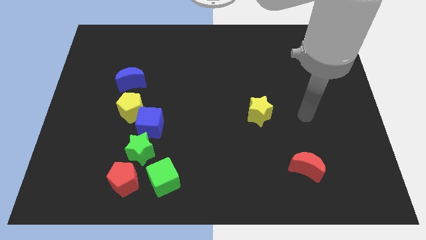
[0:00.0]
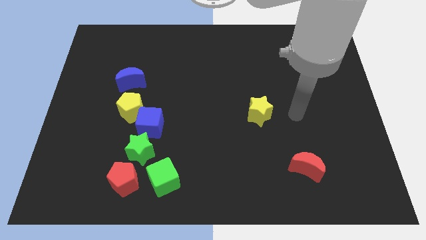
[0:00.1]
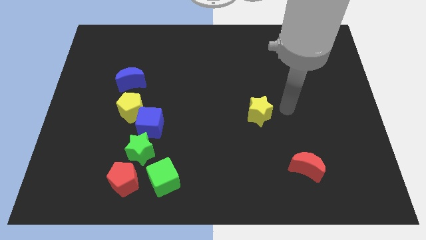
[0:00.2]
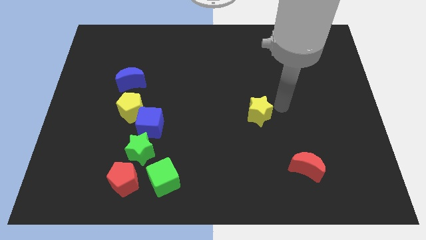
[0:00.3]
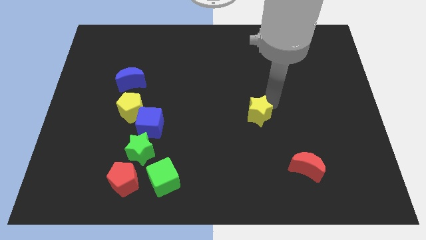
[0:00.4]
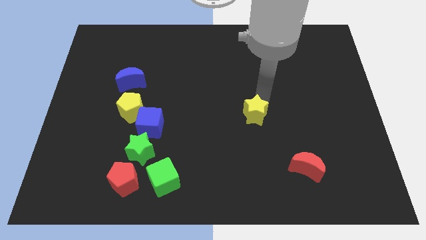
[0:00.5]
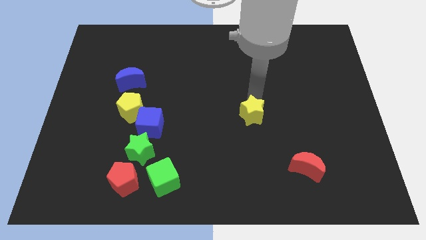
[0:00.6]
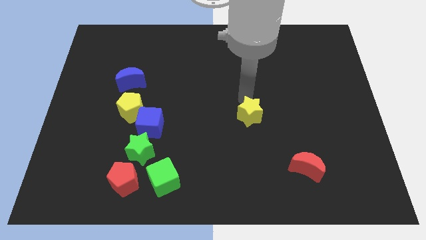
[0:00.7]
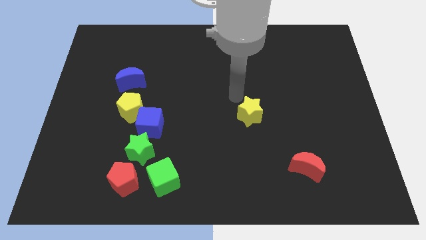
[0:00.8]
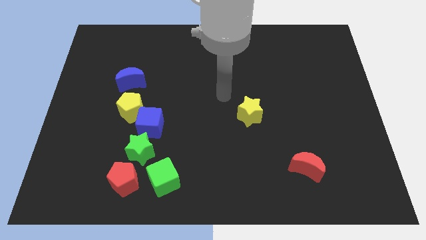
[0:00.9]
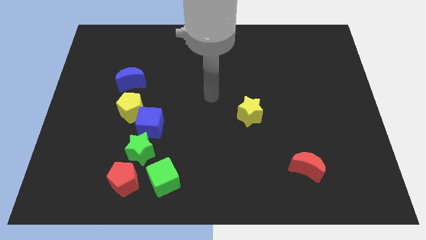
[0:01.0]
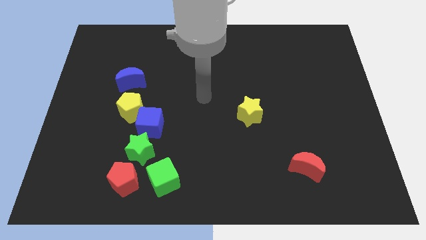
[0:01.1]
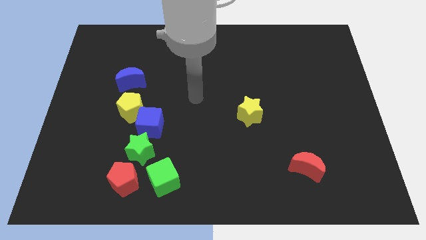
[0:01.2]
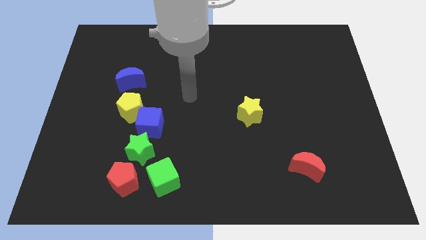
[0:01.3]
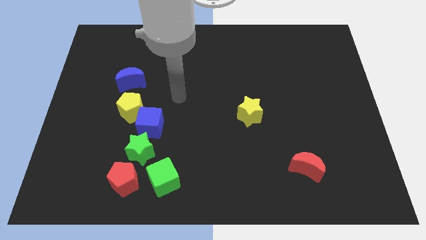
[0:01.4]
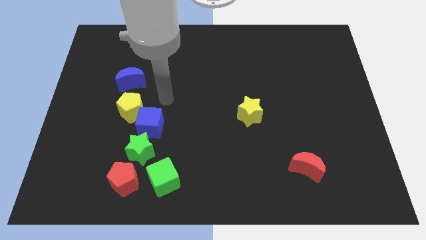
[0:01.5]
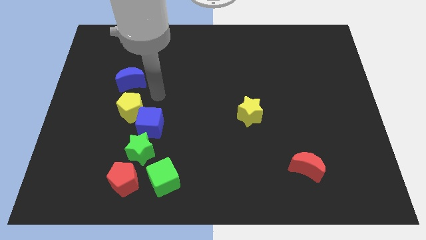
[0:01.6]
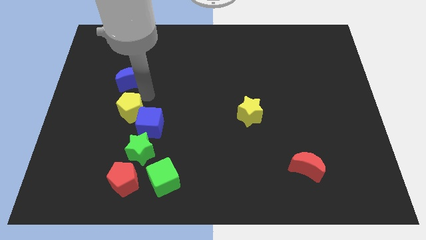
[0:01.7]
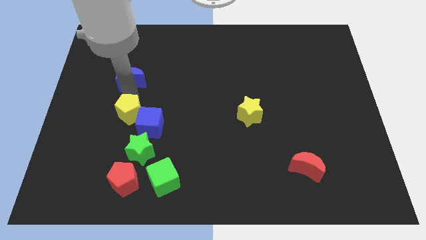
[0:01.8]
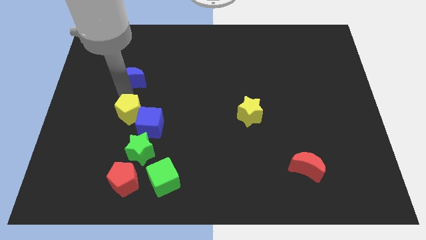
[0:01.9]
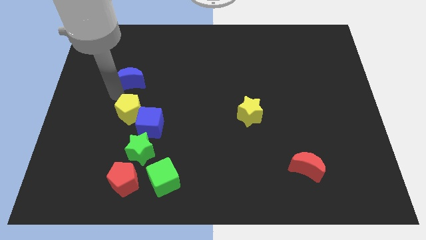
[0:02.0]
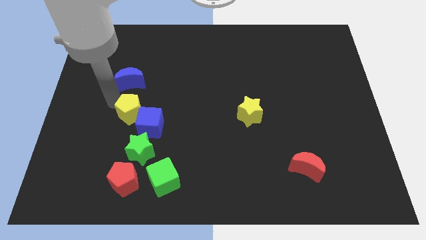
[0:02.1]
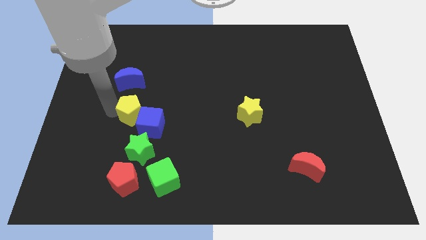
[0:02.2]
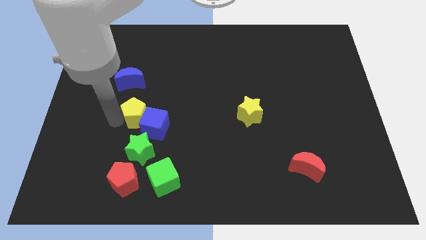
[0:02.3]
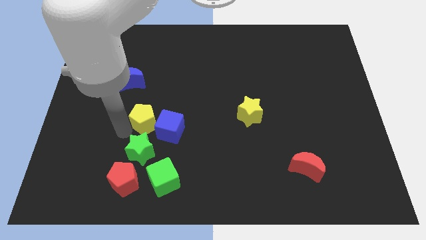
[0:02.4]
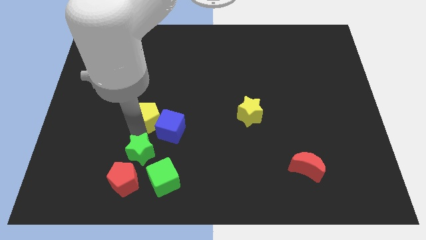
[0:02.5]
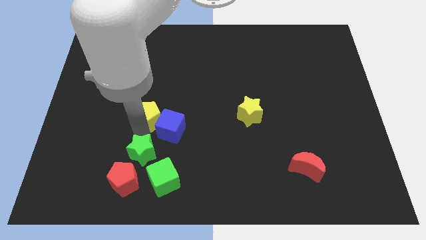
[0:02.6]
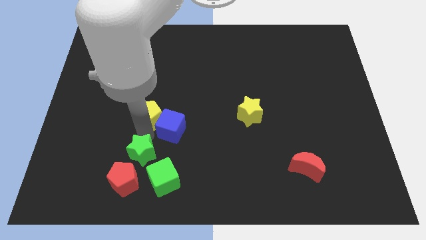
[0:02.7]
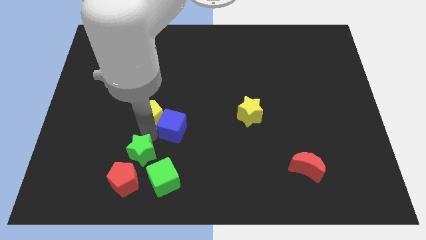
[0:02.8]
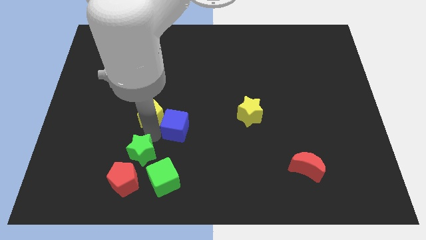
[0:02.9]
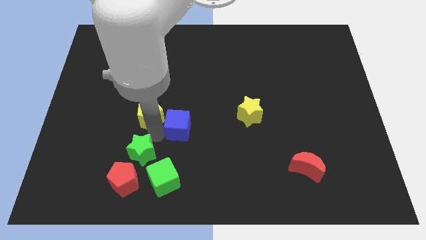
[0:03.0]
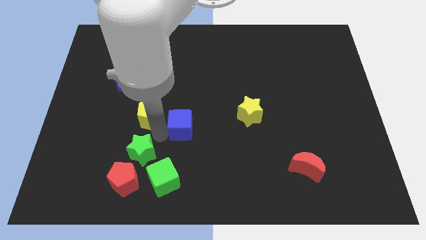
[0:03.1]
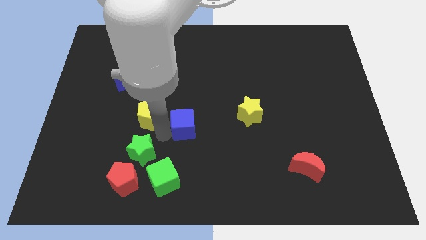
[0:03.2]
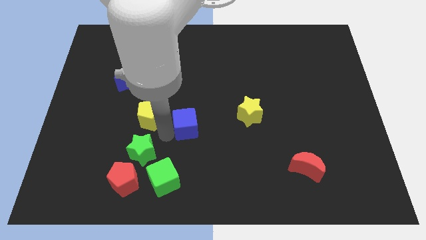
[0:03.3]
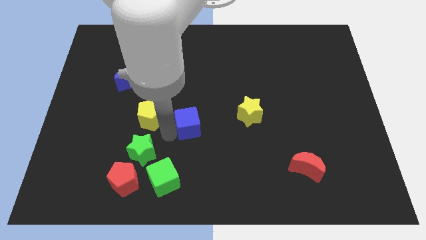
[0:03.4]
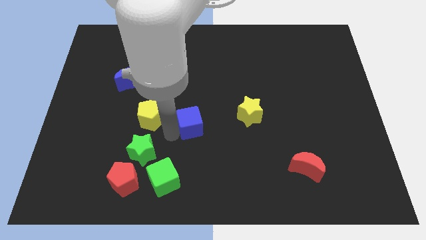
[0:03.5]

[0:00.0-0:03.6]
move the blue cube away from the yellow pentagon and green star

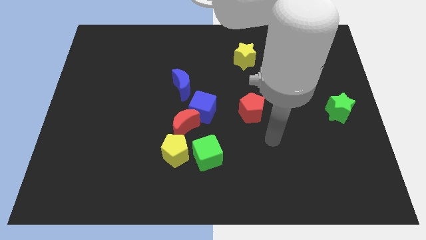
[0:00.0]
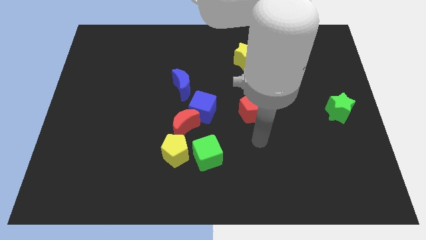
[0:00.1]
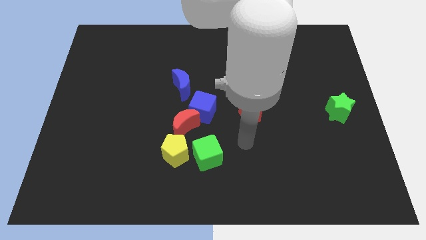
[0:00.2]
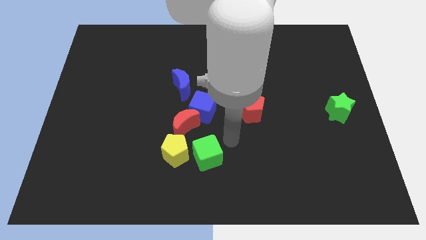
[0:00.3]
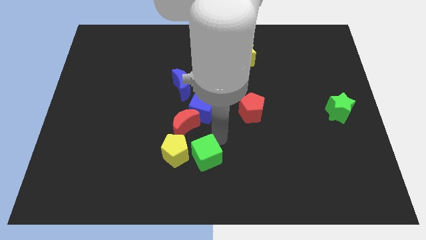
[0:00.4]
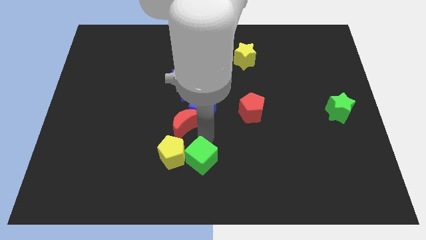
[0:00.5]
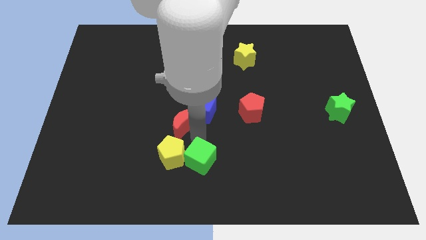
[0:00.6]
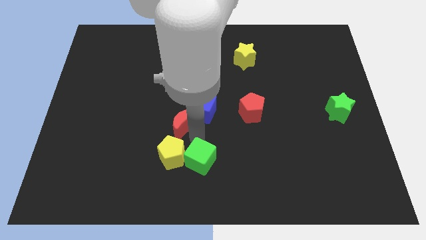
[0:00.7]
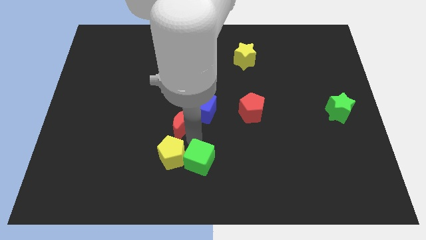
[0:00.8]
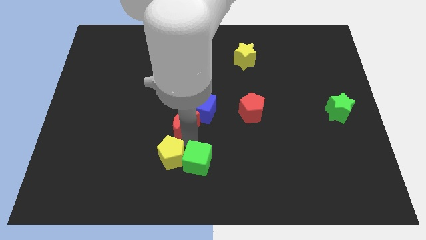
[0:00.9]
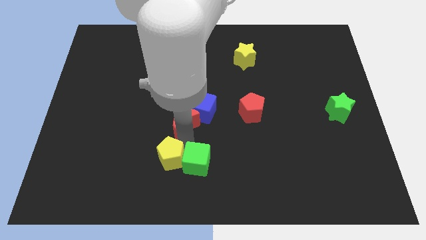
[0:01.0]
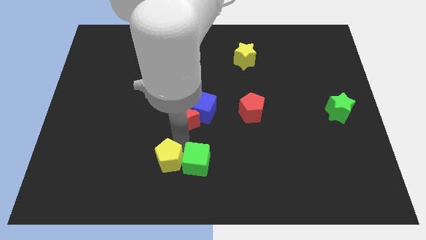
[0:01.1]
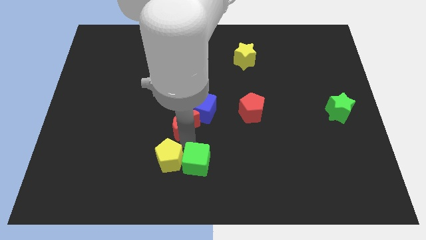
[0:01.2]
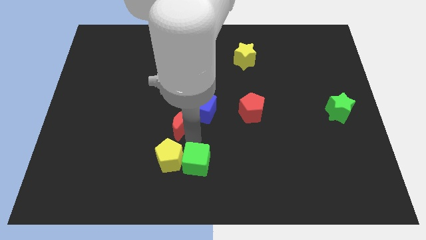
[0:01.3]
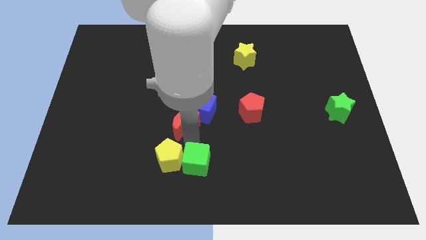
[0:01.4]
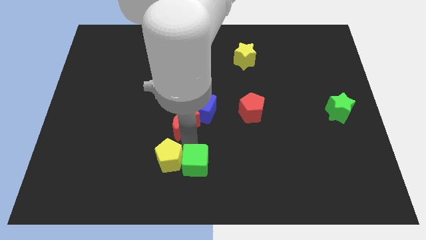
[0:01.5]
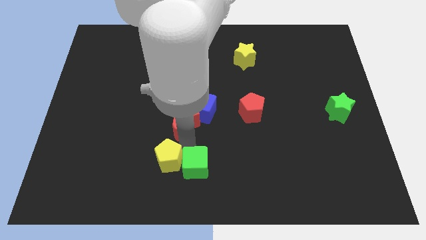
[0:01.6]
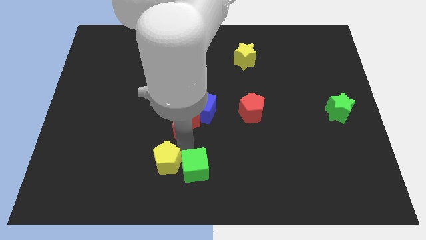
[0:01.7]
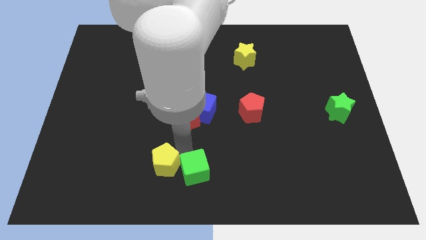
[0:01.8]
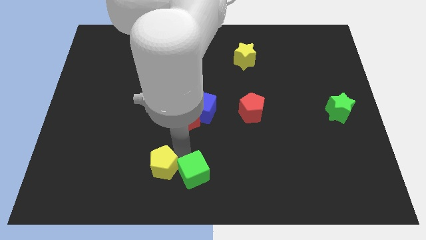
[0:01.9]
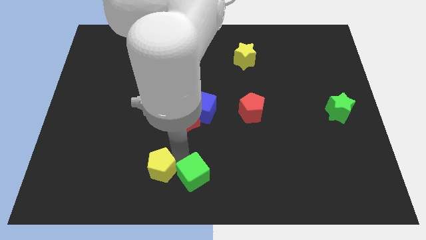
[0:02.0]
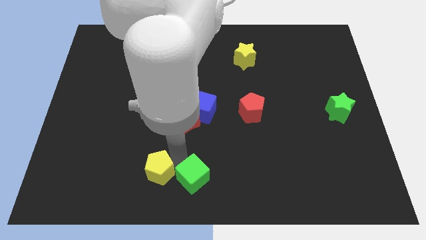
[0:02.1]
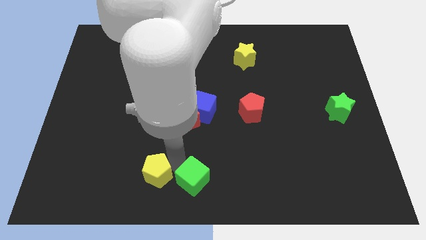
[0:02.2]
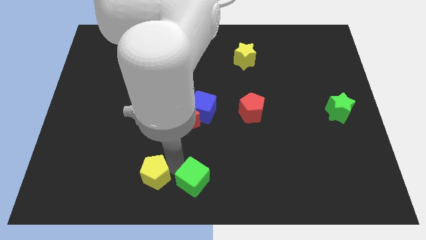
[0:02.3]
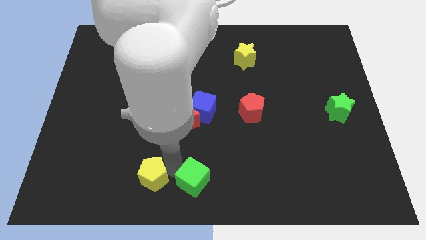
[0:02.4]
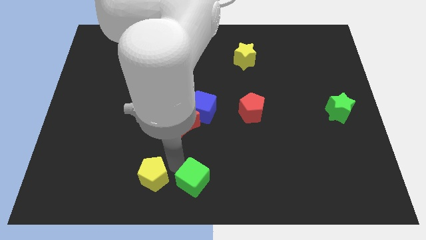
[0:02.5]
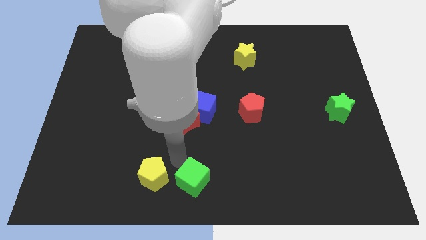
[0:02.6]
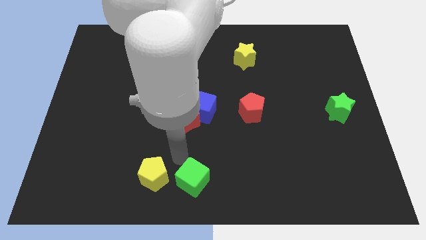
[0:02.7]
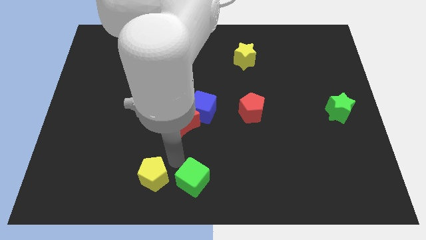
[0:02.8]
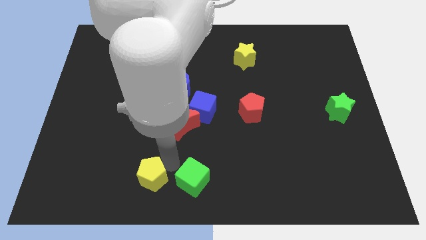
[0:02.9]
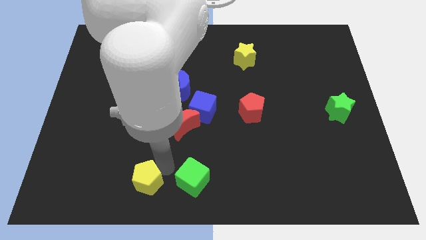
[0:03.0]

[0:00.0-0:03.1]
move the yellow pentagon away from the green cube and red moon

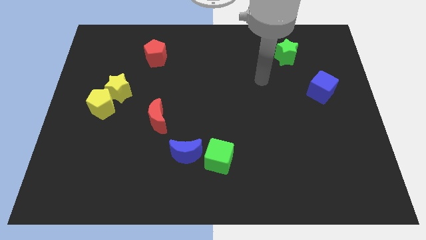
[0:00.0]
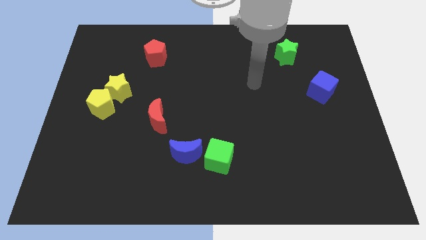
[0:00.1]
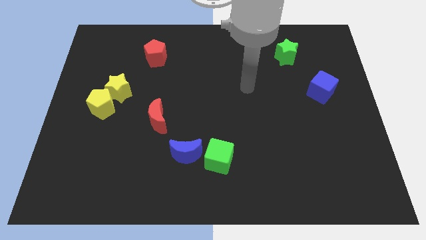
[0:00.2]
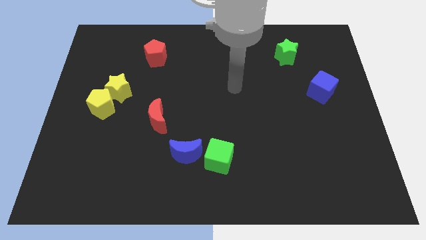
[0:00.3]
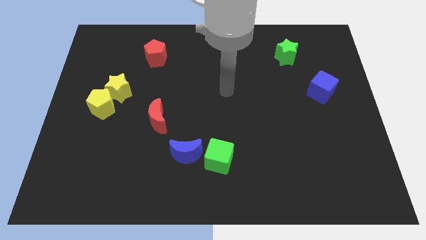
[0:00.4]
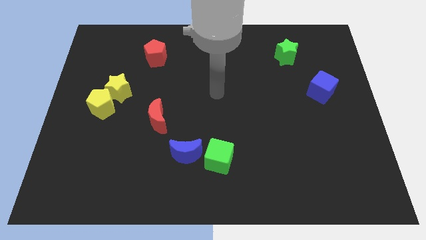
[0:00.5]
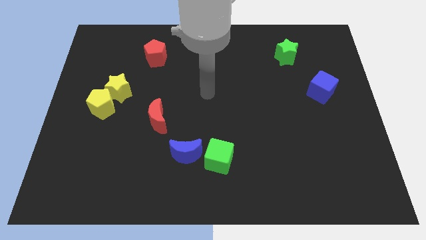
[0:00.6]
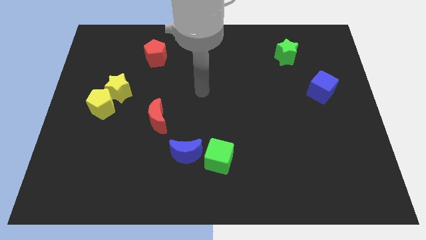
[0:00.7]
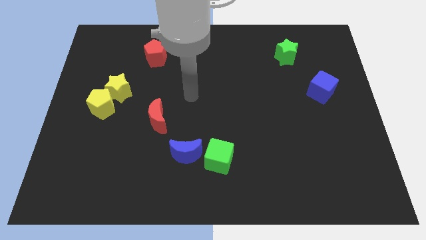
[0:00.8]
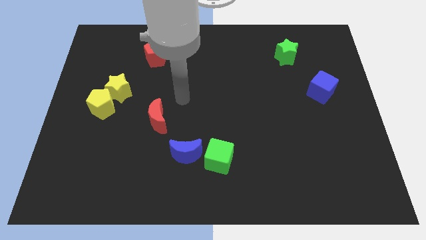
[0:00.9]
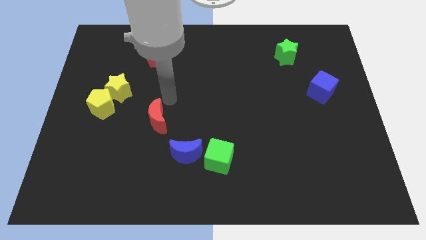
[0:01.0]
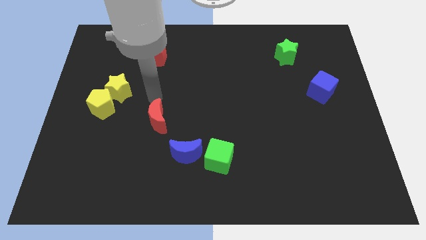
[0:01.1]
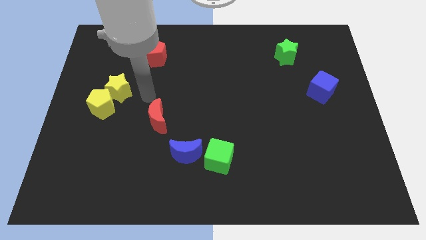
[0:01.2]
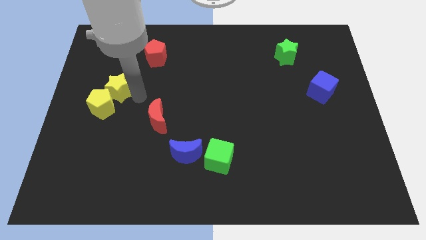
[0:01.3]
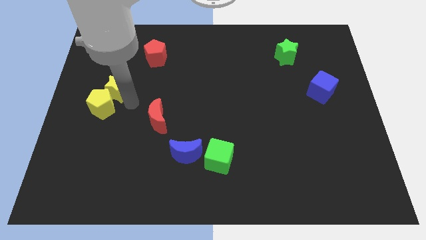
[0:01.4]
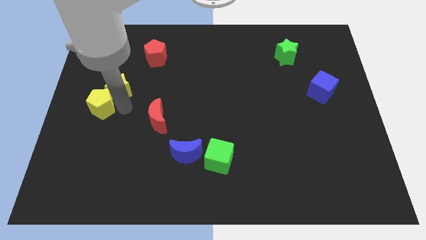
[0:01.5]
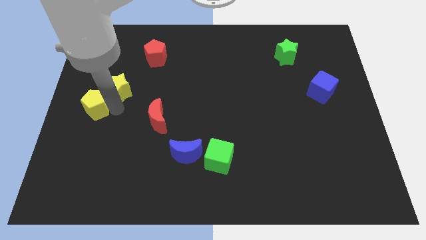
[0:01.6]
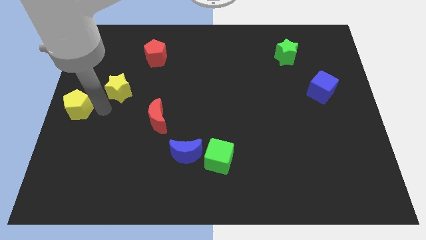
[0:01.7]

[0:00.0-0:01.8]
separate the yellow star from the yellow pentagon

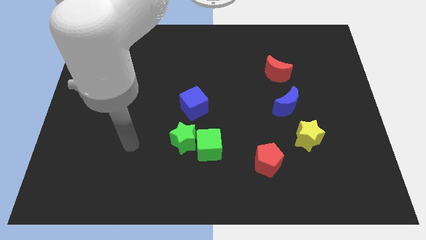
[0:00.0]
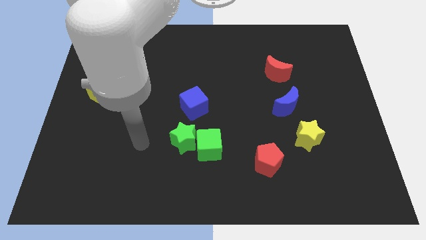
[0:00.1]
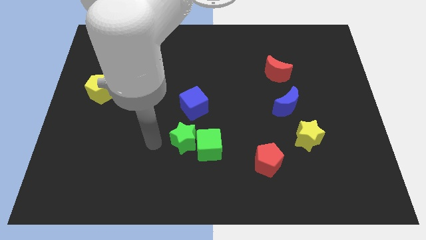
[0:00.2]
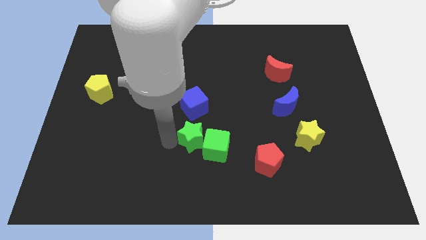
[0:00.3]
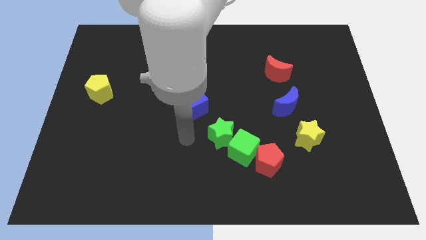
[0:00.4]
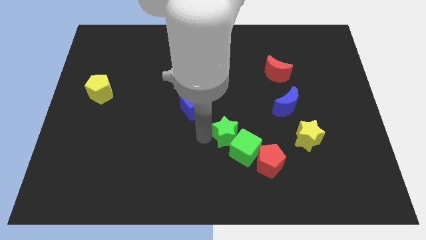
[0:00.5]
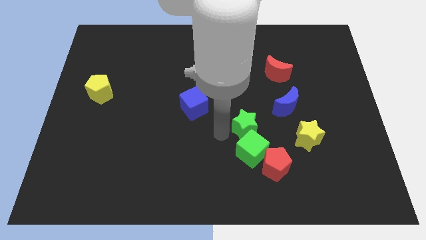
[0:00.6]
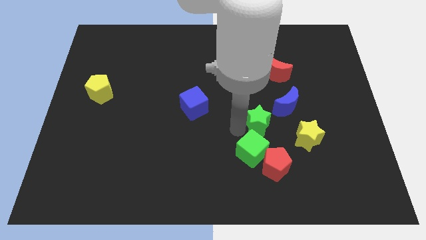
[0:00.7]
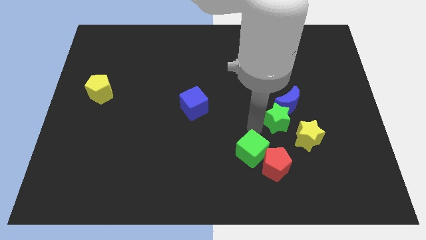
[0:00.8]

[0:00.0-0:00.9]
move the green cube away from the green star
